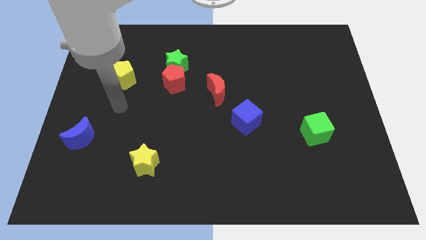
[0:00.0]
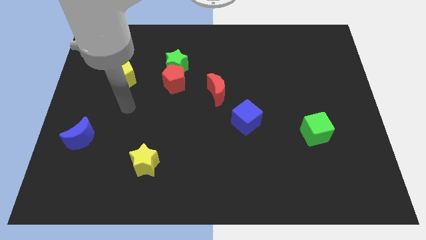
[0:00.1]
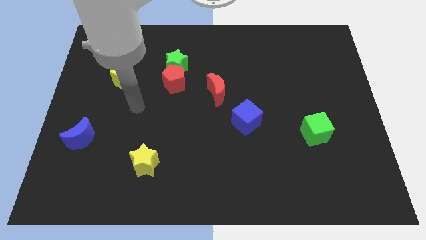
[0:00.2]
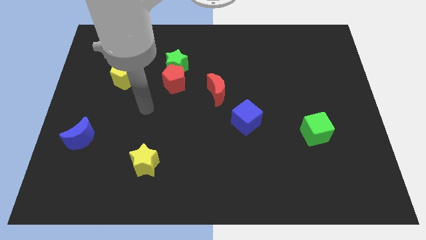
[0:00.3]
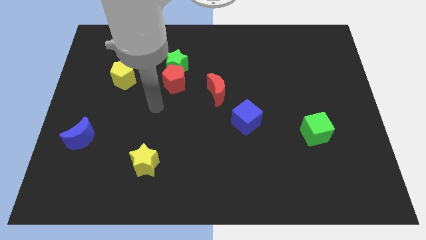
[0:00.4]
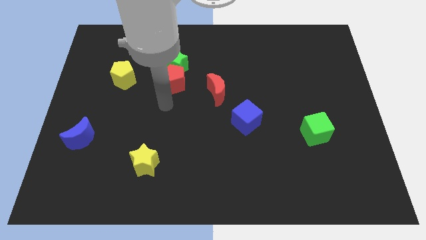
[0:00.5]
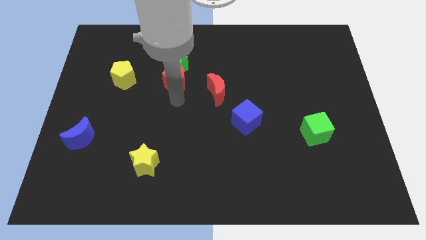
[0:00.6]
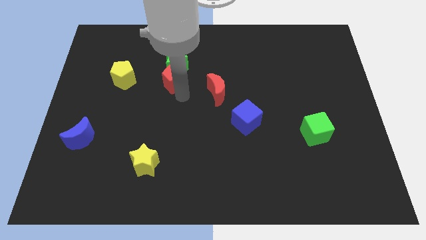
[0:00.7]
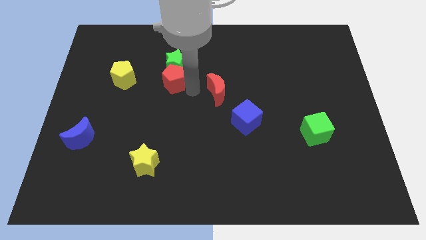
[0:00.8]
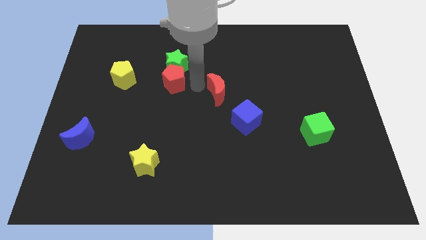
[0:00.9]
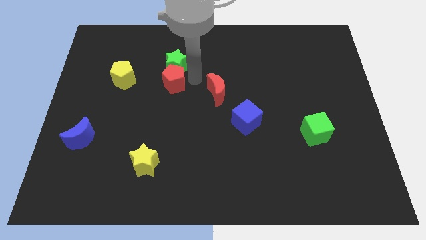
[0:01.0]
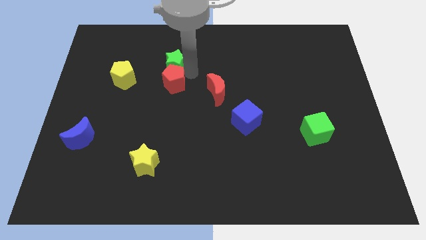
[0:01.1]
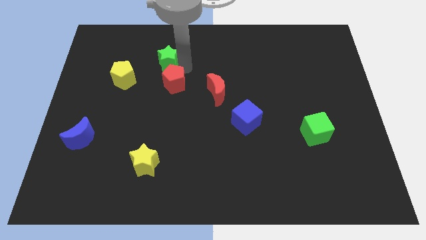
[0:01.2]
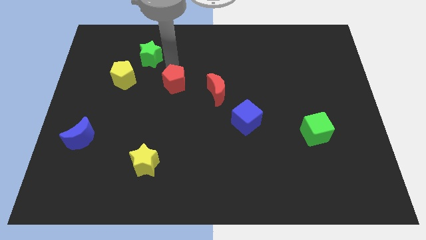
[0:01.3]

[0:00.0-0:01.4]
separate the red pentagon from the green star

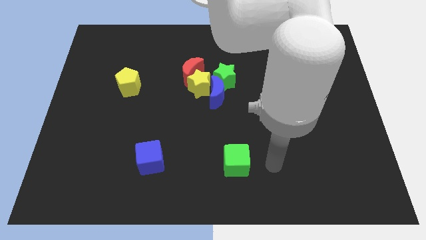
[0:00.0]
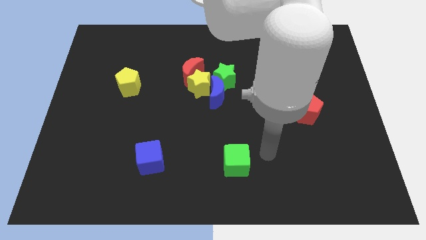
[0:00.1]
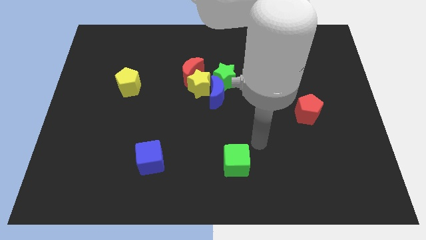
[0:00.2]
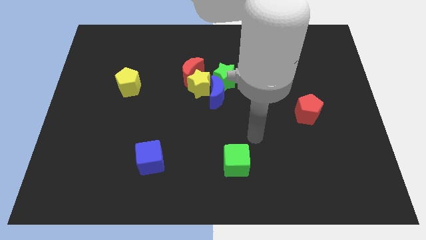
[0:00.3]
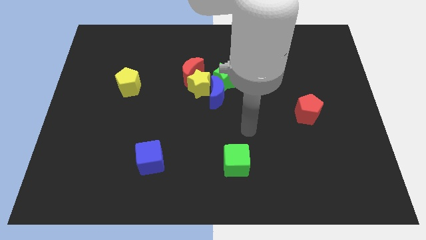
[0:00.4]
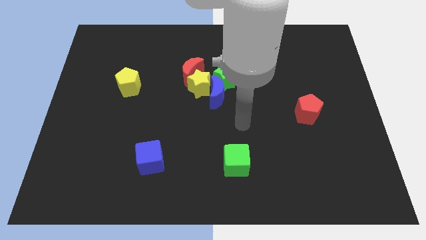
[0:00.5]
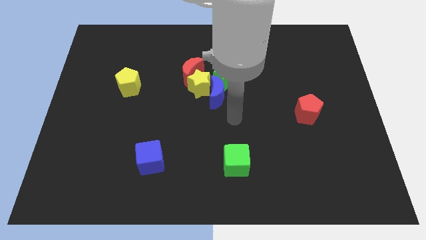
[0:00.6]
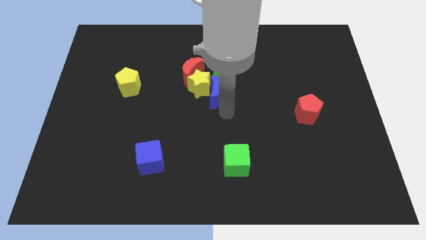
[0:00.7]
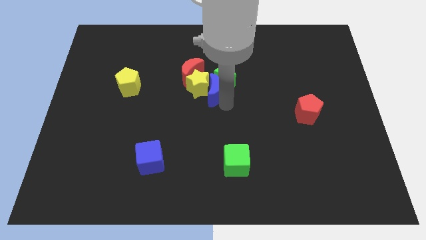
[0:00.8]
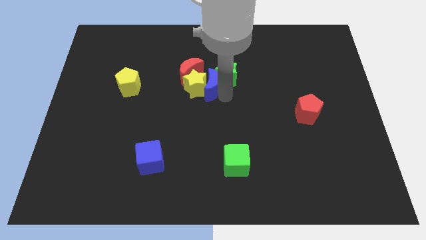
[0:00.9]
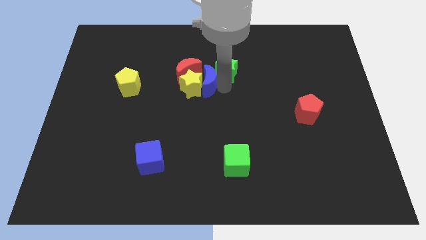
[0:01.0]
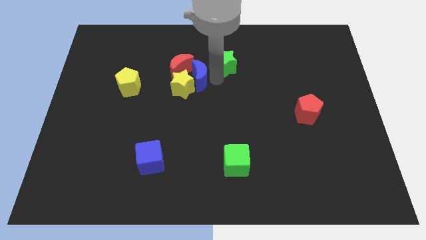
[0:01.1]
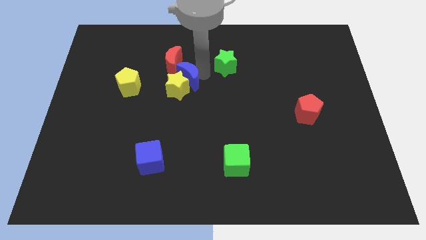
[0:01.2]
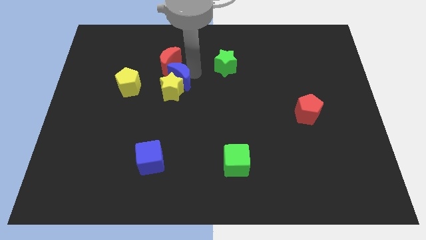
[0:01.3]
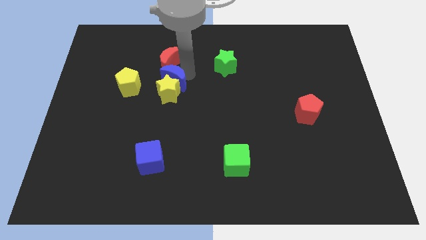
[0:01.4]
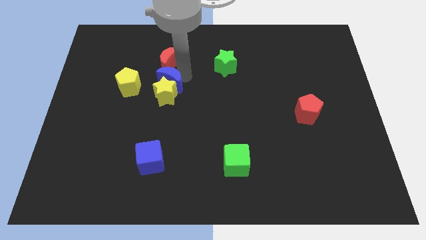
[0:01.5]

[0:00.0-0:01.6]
separate the yellow star from the red moon, blue moon, and green star

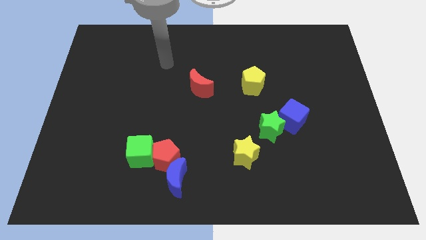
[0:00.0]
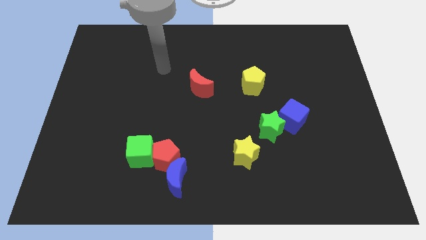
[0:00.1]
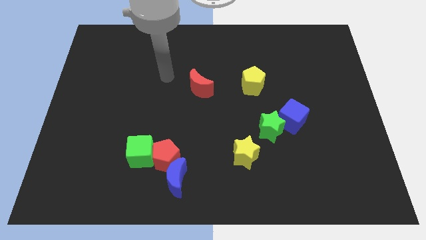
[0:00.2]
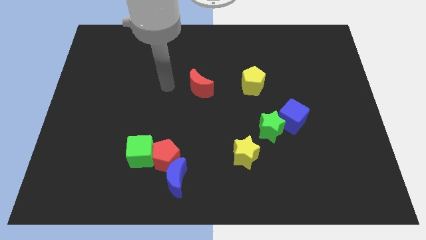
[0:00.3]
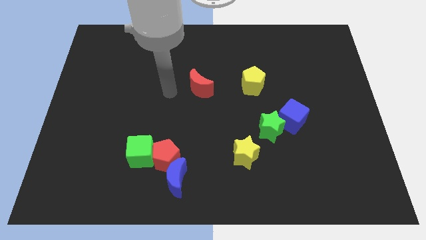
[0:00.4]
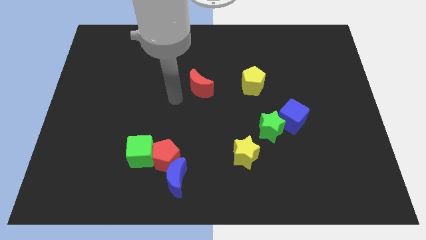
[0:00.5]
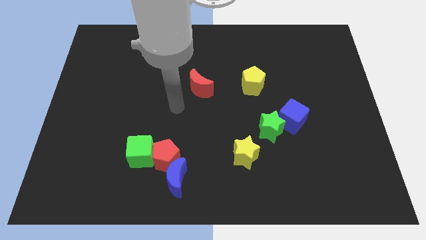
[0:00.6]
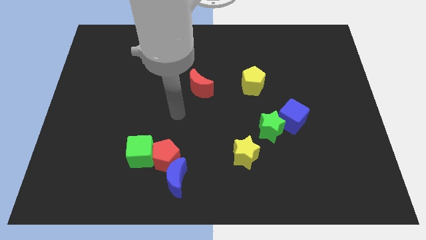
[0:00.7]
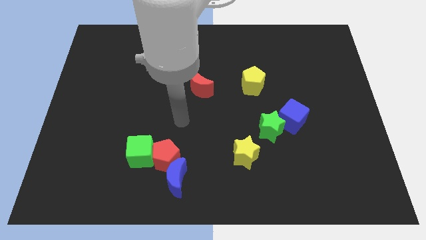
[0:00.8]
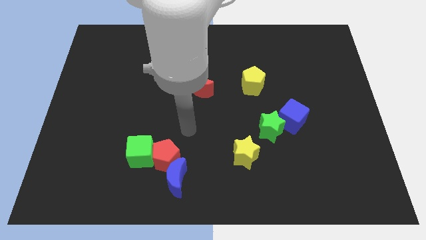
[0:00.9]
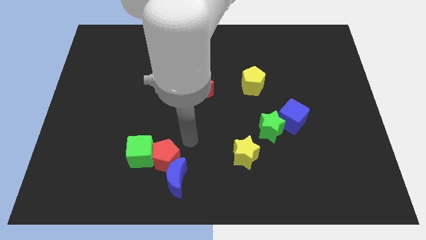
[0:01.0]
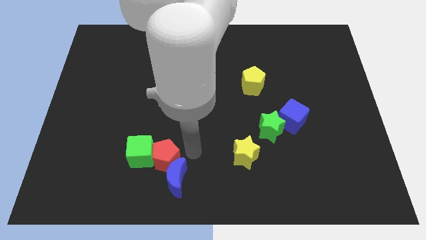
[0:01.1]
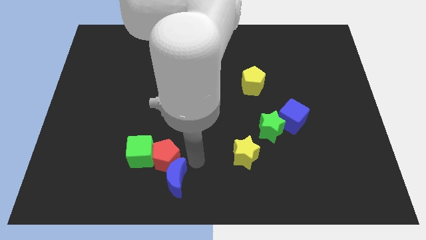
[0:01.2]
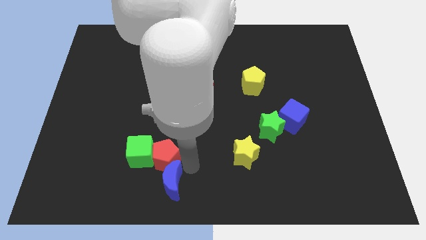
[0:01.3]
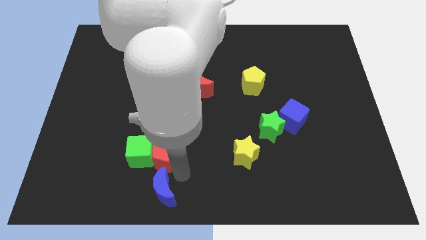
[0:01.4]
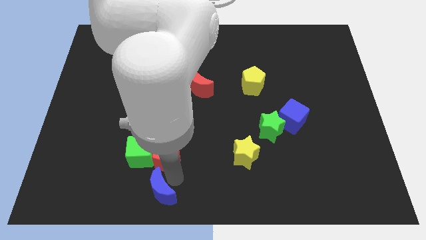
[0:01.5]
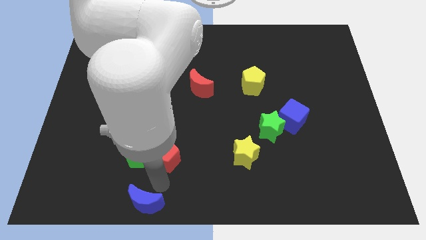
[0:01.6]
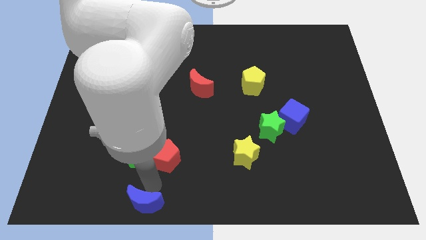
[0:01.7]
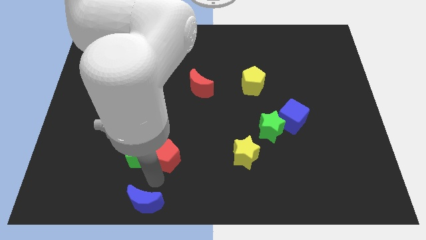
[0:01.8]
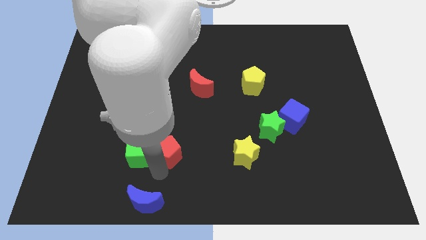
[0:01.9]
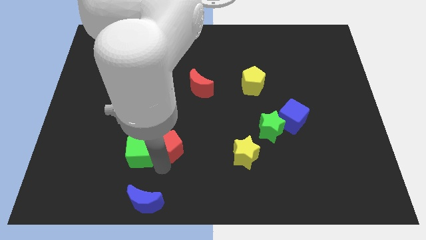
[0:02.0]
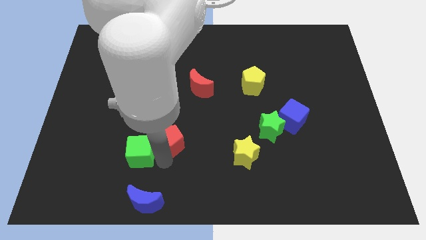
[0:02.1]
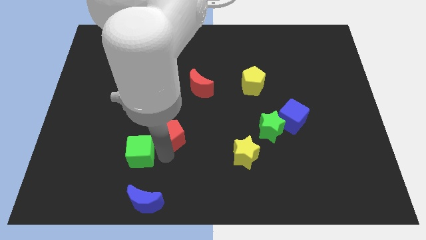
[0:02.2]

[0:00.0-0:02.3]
move the red pentagon away from the blue moon and green cube

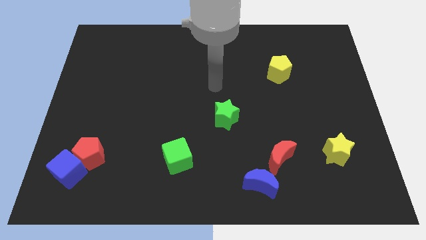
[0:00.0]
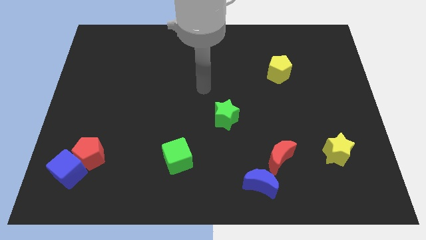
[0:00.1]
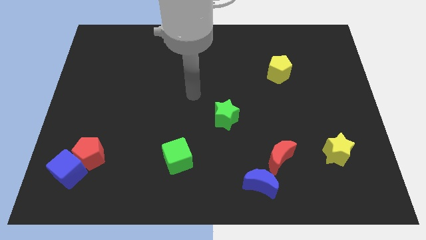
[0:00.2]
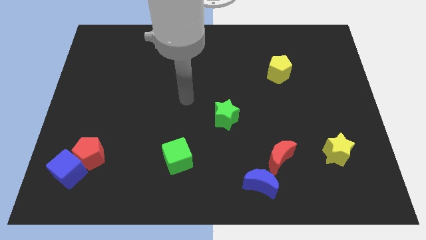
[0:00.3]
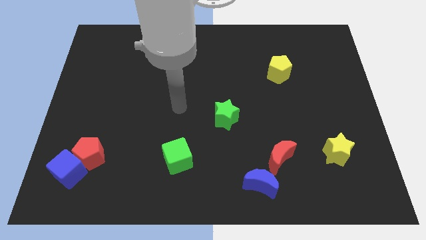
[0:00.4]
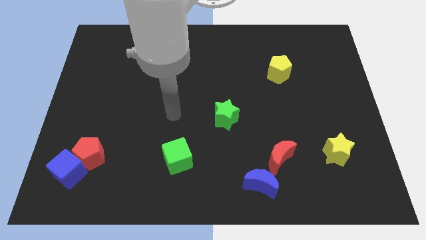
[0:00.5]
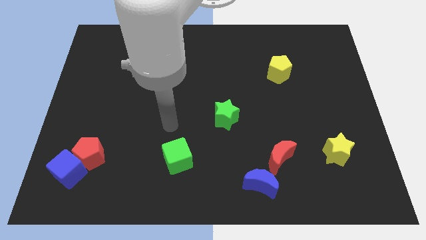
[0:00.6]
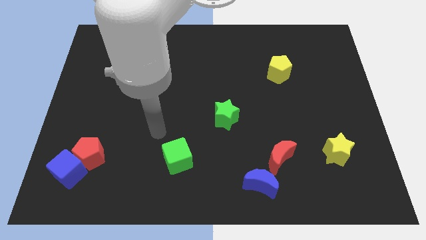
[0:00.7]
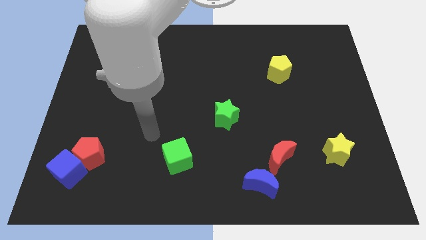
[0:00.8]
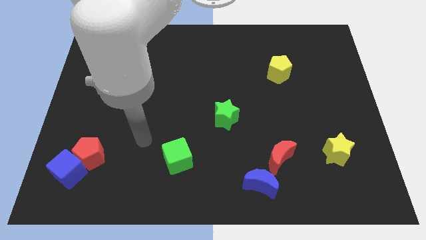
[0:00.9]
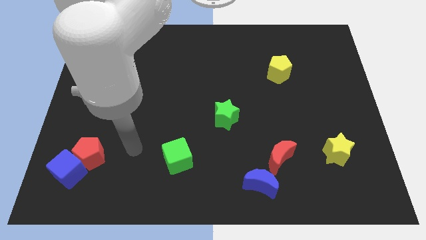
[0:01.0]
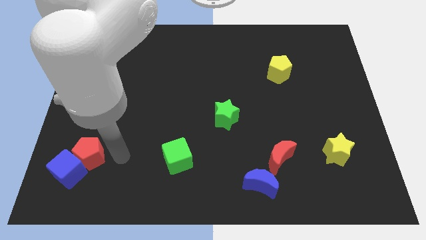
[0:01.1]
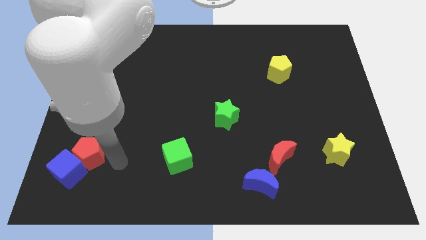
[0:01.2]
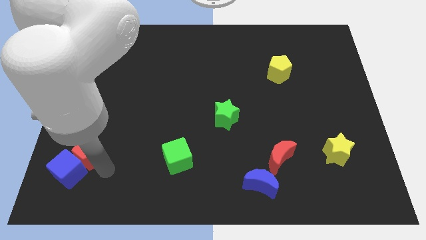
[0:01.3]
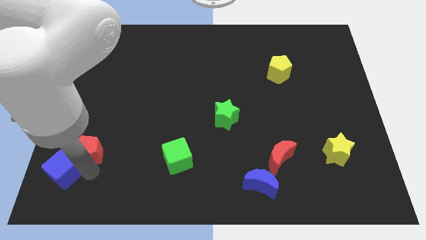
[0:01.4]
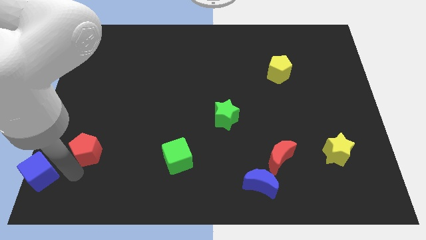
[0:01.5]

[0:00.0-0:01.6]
pull the red pentagon apart from the blue cube

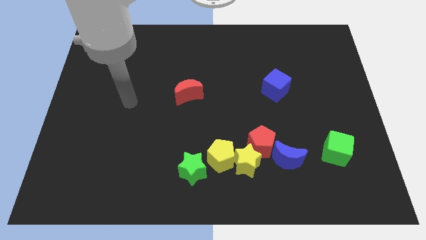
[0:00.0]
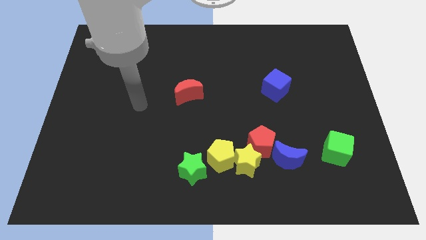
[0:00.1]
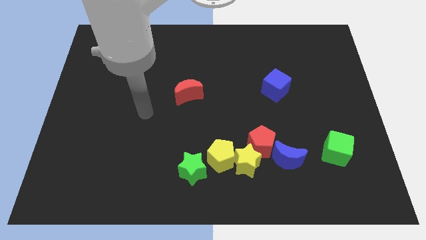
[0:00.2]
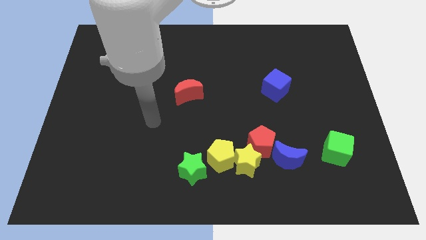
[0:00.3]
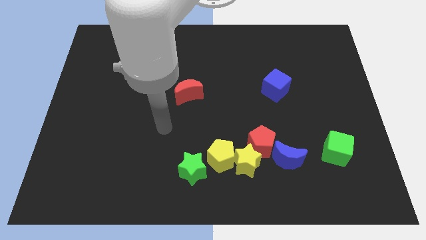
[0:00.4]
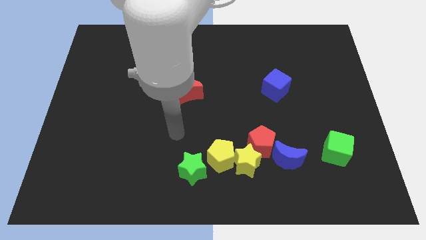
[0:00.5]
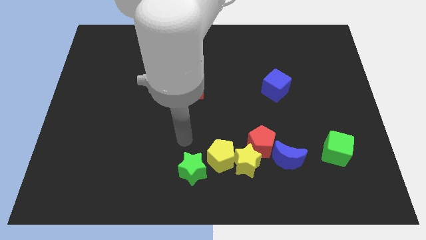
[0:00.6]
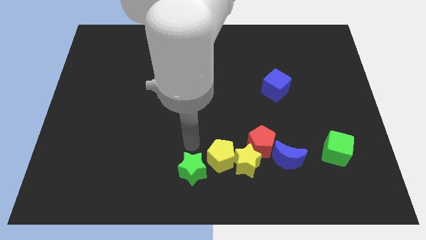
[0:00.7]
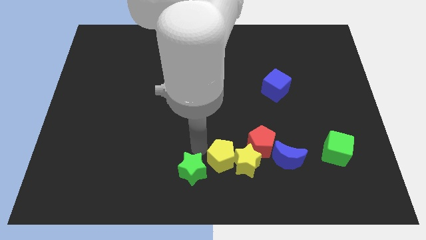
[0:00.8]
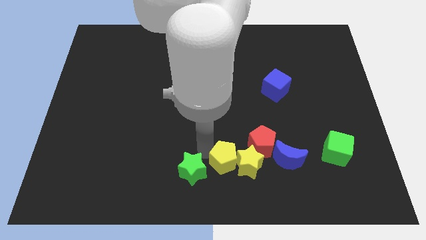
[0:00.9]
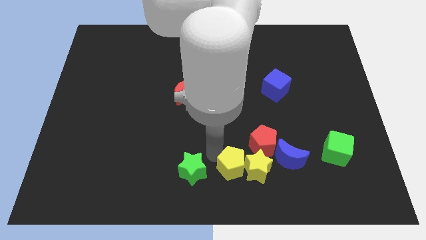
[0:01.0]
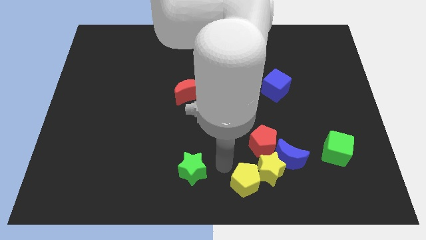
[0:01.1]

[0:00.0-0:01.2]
separate the green star from the yellow pentagon

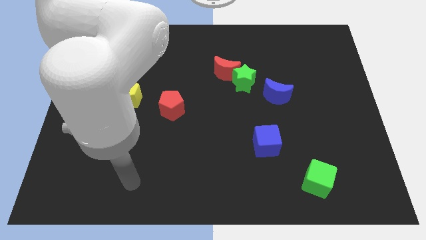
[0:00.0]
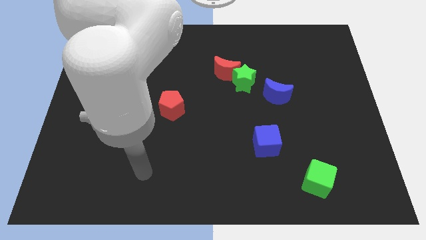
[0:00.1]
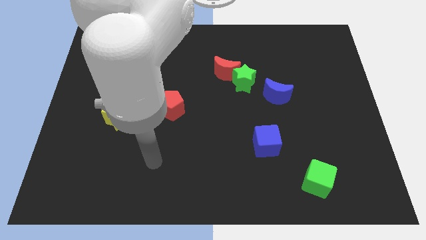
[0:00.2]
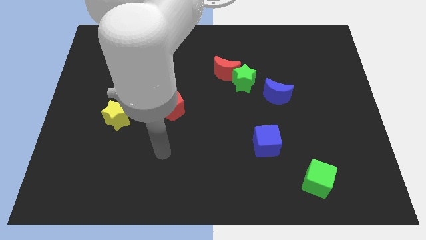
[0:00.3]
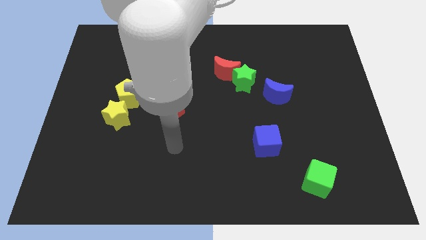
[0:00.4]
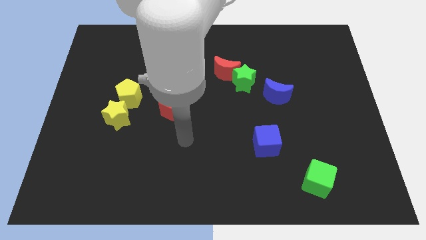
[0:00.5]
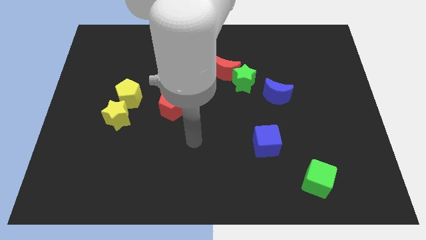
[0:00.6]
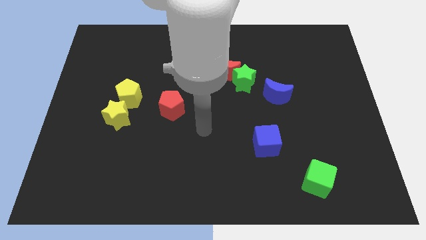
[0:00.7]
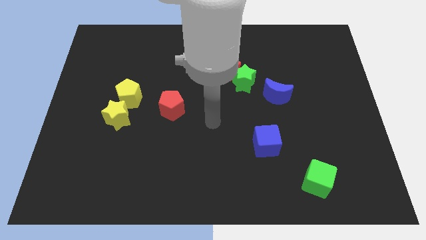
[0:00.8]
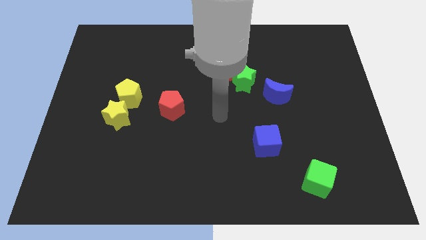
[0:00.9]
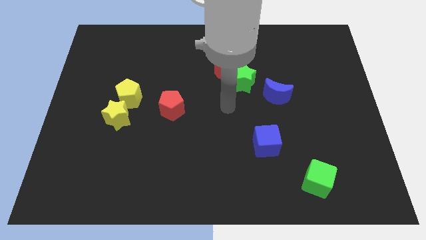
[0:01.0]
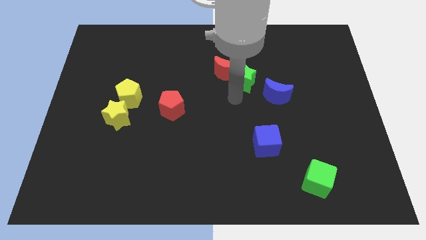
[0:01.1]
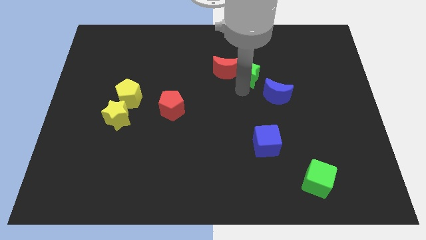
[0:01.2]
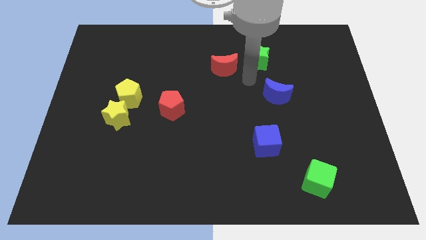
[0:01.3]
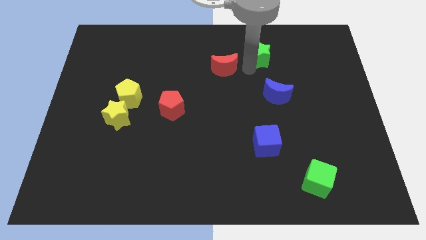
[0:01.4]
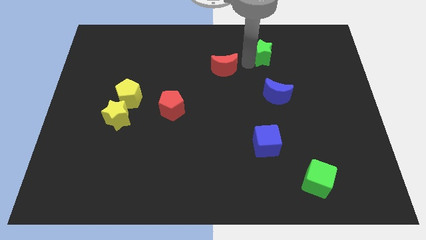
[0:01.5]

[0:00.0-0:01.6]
move the red moon away from the green star
